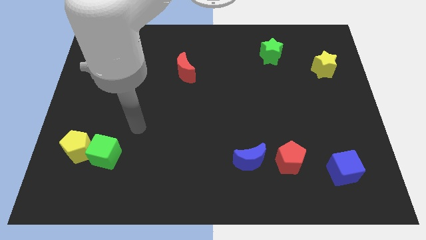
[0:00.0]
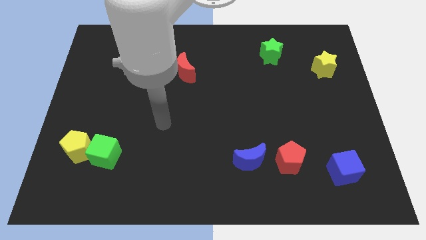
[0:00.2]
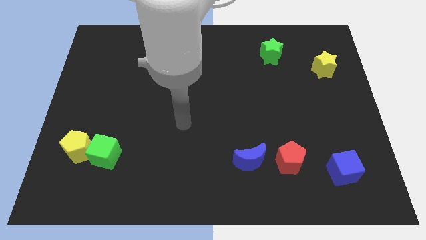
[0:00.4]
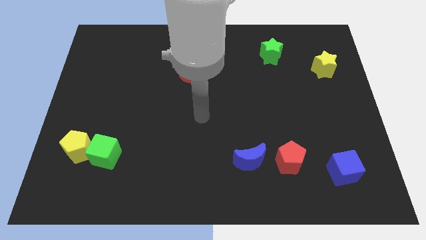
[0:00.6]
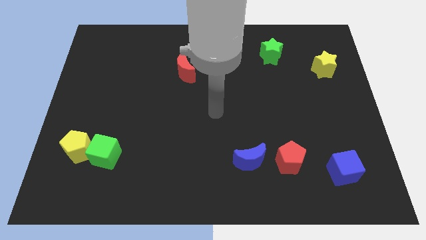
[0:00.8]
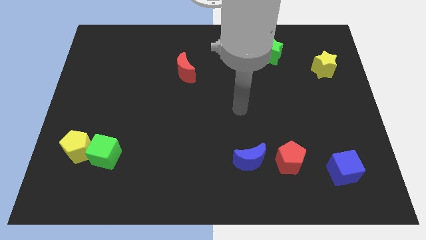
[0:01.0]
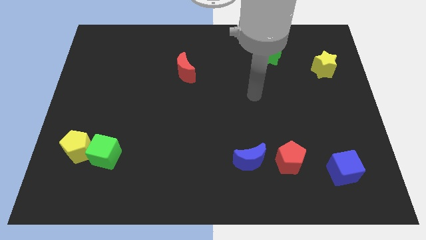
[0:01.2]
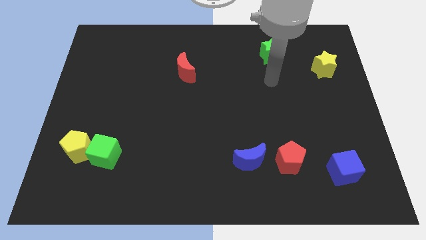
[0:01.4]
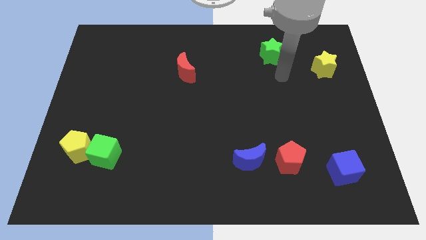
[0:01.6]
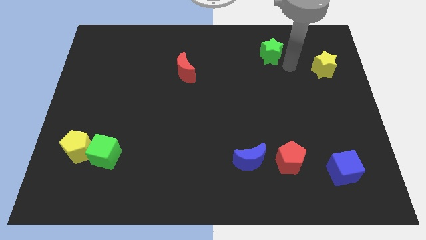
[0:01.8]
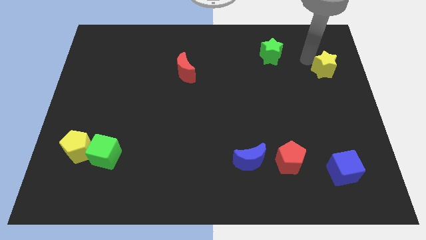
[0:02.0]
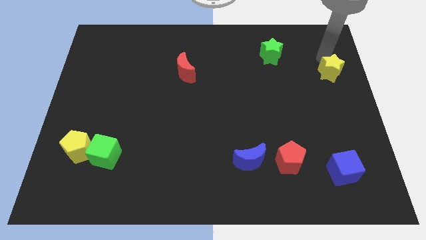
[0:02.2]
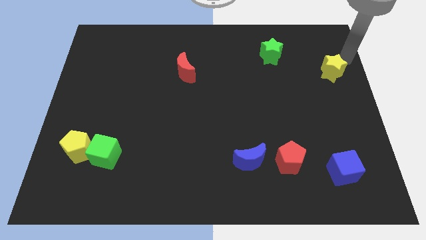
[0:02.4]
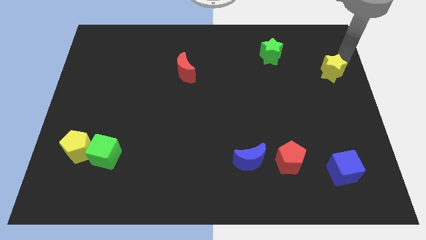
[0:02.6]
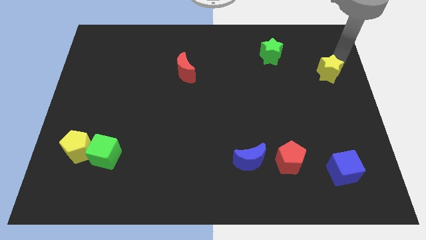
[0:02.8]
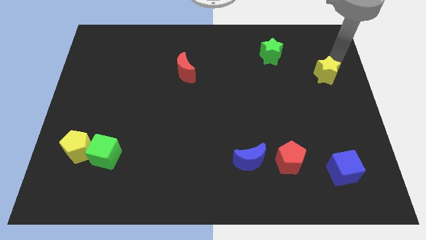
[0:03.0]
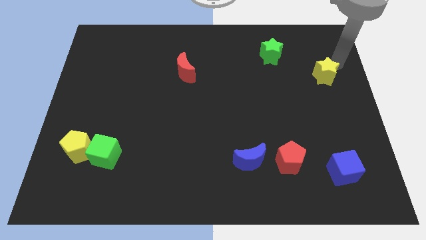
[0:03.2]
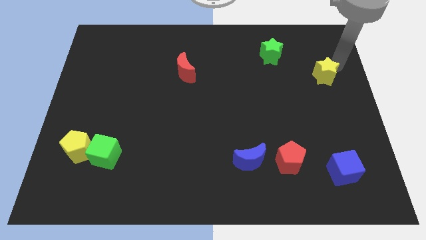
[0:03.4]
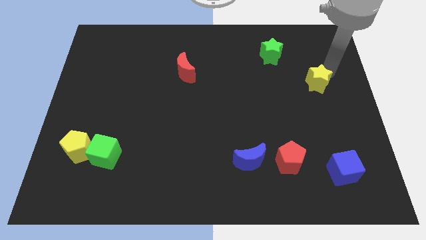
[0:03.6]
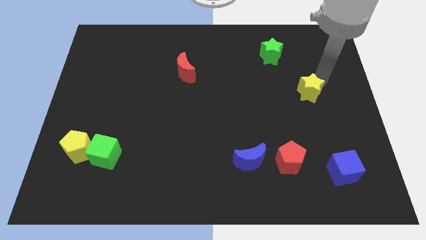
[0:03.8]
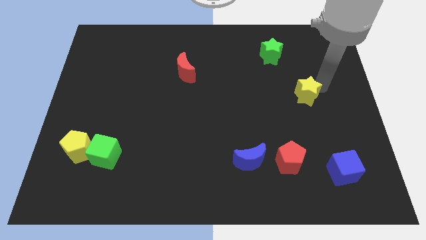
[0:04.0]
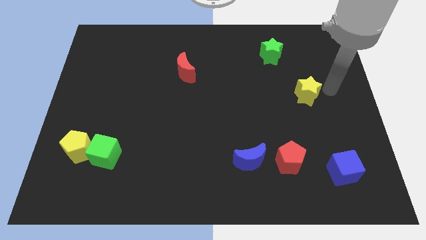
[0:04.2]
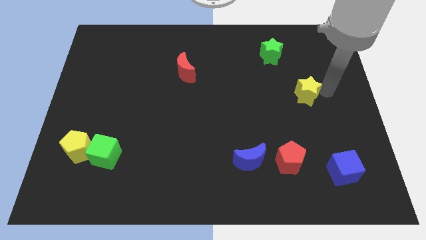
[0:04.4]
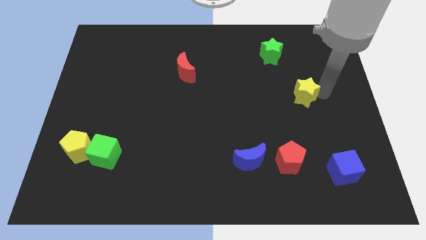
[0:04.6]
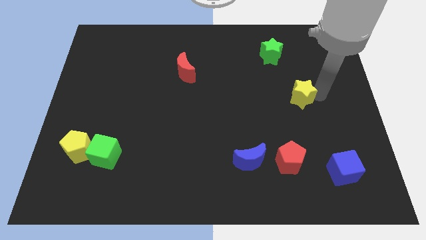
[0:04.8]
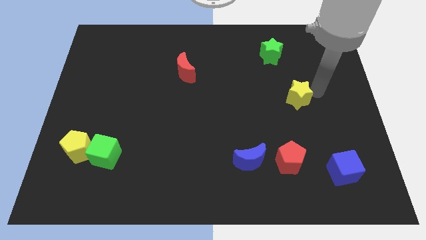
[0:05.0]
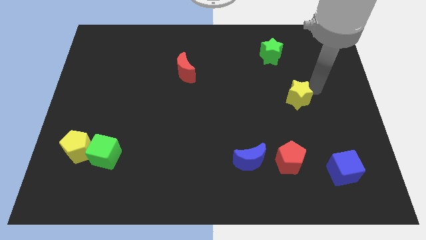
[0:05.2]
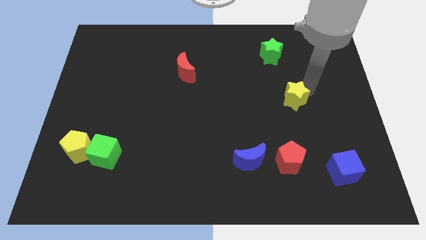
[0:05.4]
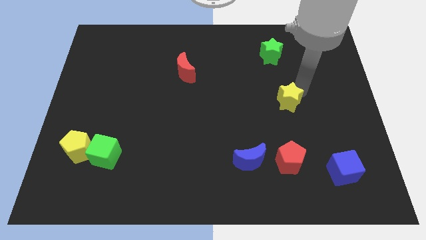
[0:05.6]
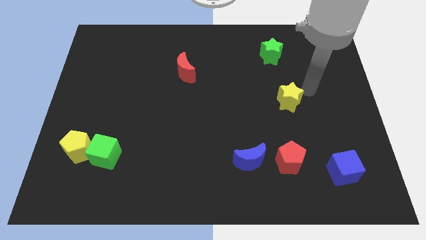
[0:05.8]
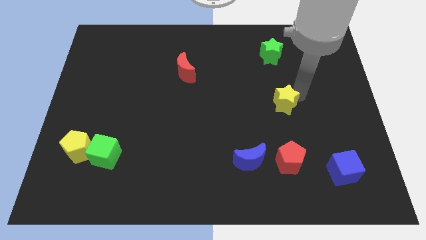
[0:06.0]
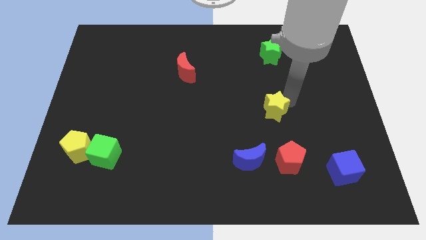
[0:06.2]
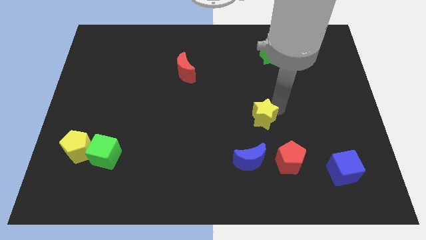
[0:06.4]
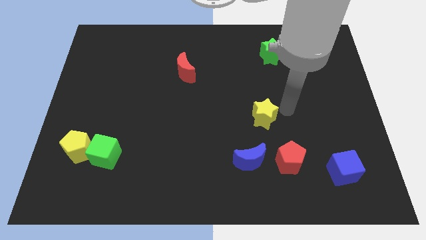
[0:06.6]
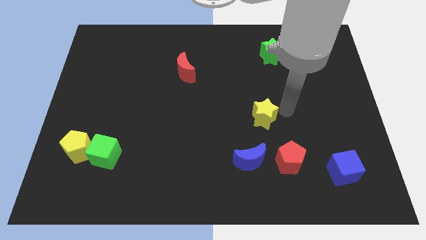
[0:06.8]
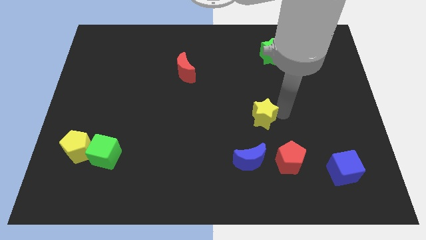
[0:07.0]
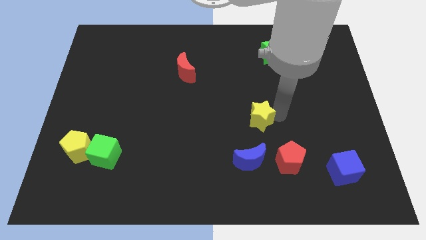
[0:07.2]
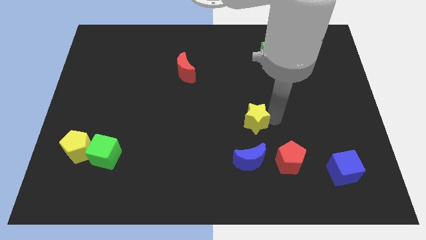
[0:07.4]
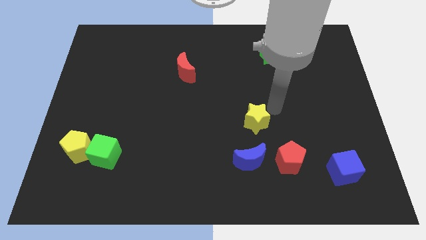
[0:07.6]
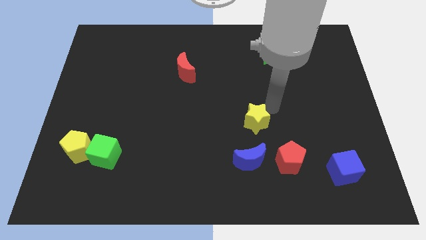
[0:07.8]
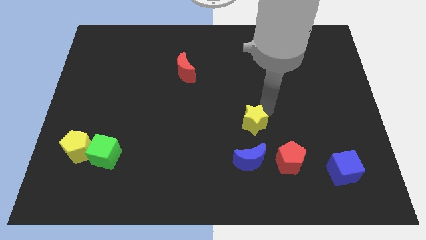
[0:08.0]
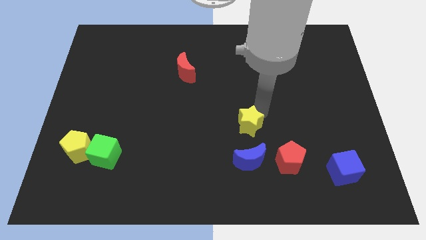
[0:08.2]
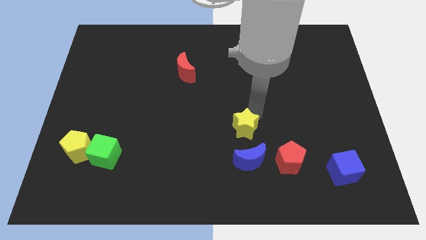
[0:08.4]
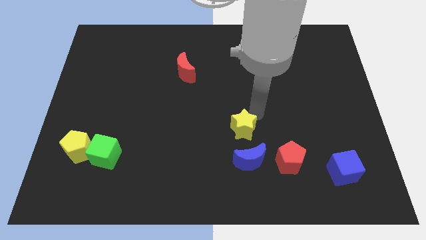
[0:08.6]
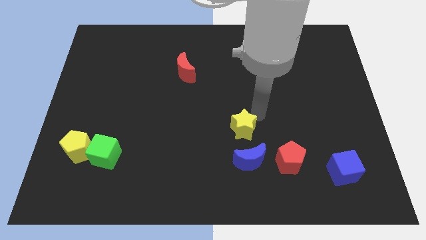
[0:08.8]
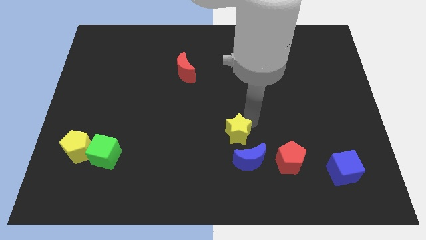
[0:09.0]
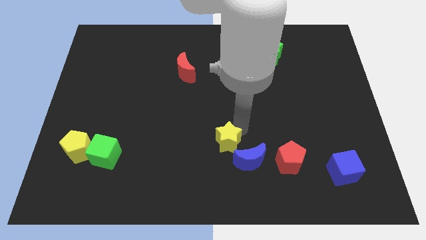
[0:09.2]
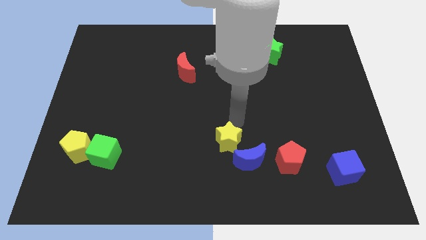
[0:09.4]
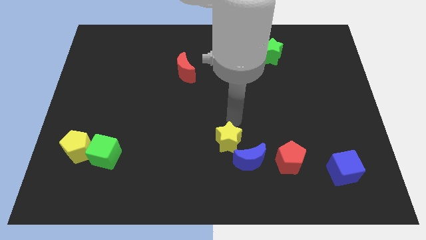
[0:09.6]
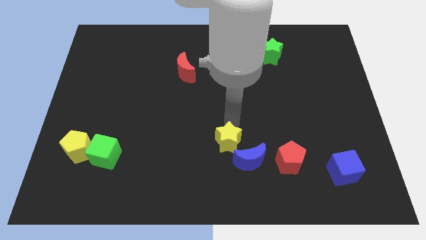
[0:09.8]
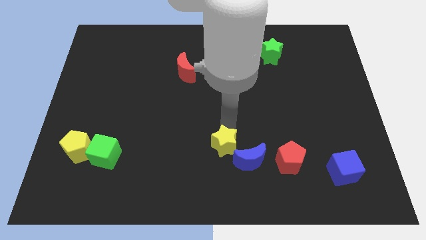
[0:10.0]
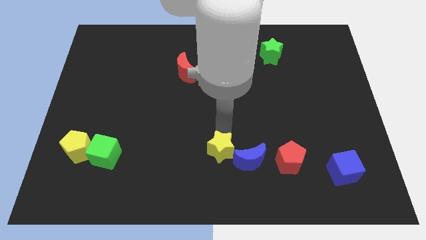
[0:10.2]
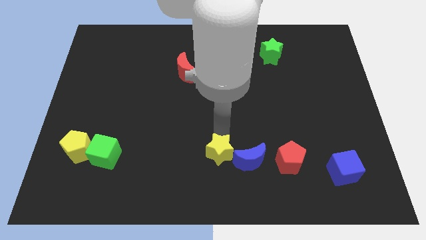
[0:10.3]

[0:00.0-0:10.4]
push the yellow star to the bottom

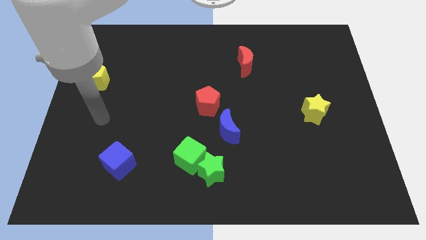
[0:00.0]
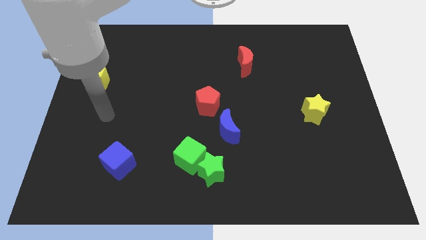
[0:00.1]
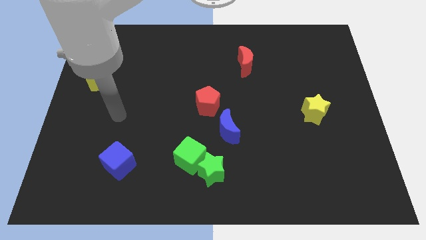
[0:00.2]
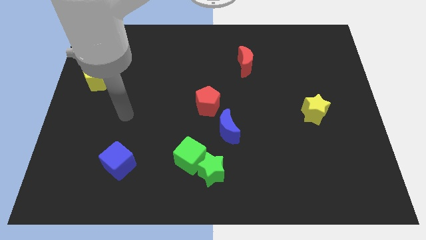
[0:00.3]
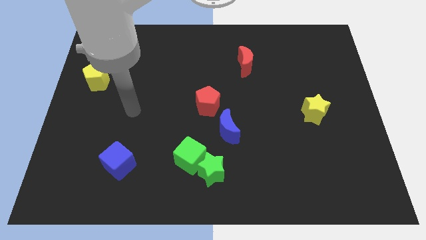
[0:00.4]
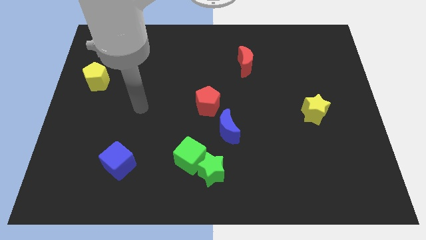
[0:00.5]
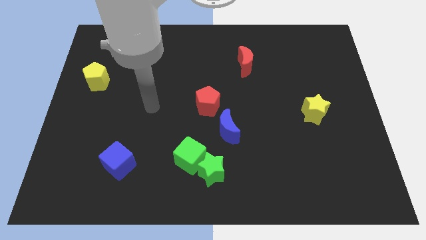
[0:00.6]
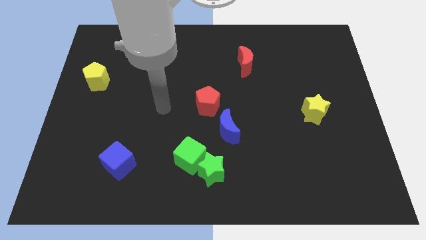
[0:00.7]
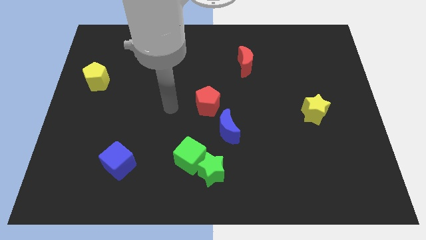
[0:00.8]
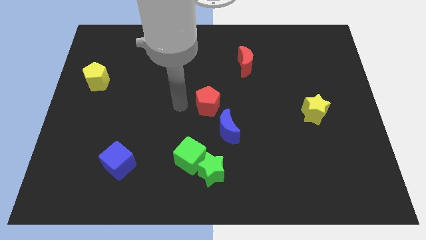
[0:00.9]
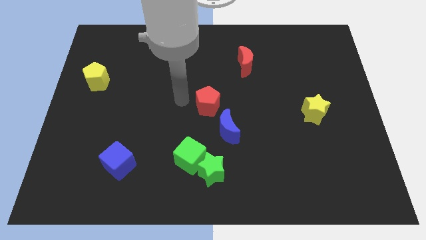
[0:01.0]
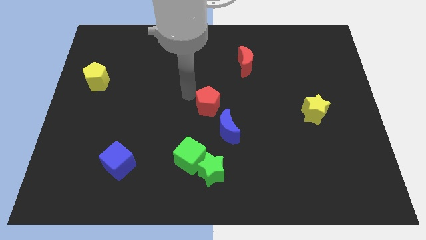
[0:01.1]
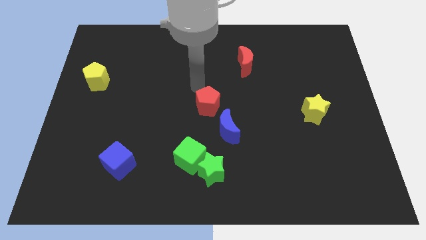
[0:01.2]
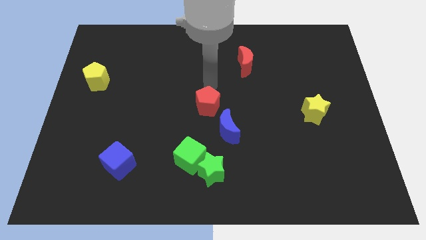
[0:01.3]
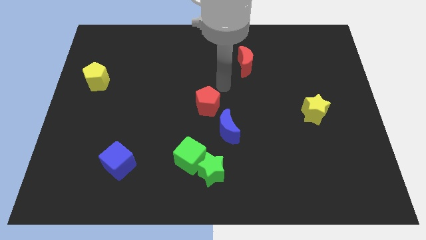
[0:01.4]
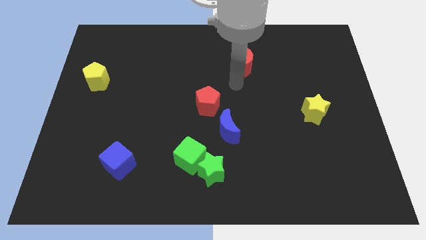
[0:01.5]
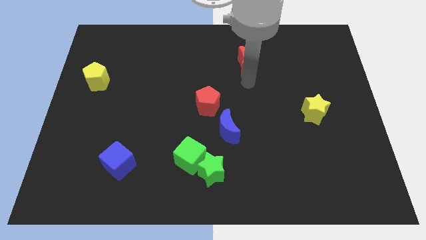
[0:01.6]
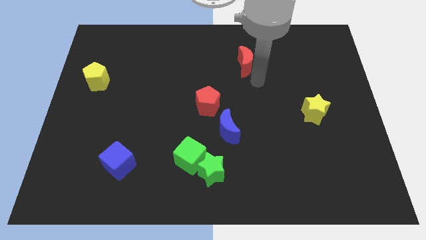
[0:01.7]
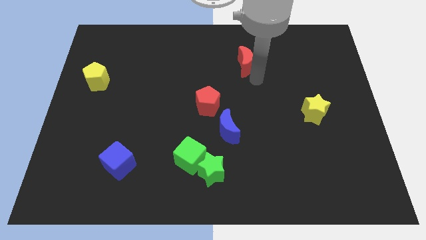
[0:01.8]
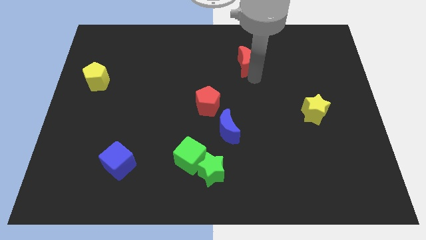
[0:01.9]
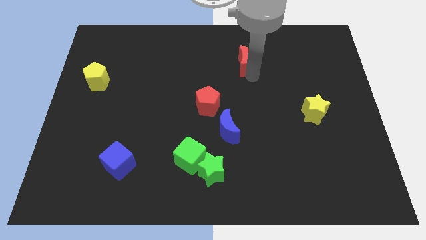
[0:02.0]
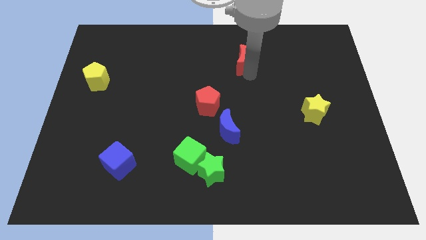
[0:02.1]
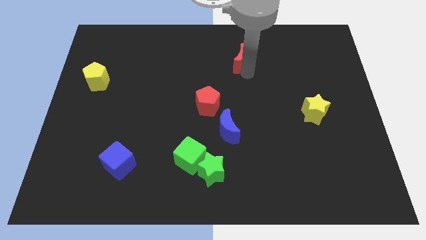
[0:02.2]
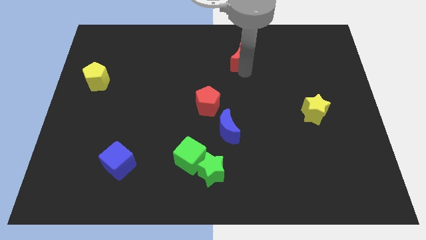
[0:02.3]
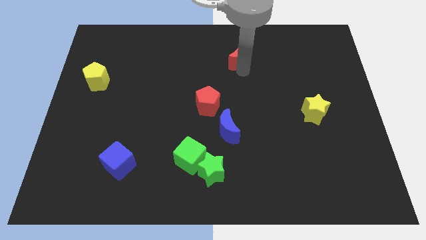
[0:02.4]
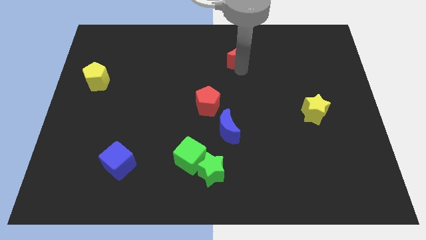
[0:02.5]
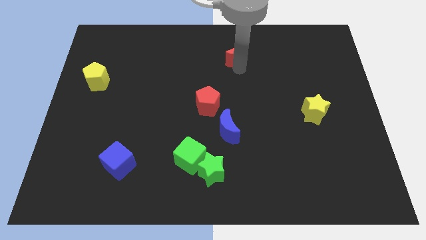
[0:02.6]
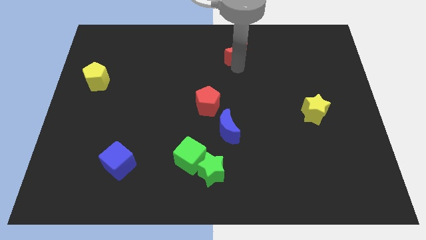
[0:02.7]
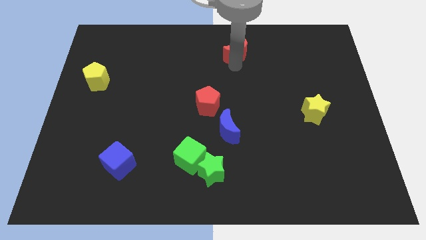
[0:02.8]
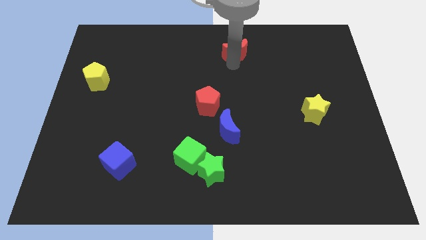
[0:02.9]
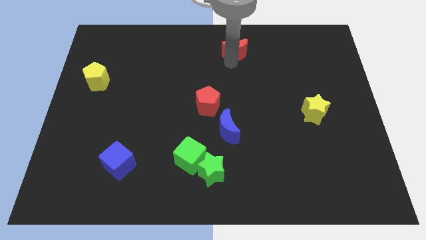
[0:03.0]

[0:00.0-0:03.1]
push the red moon to the towards your base
